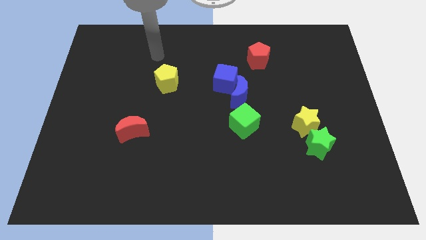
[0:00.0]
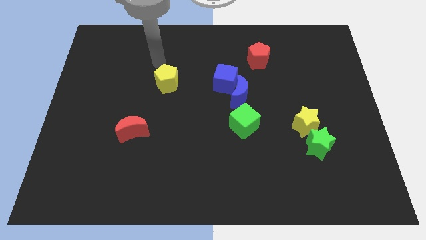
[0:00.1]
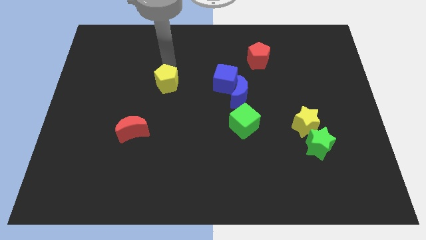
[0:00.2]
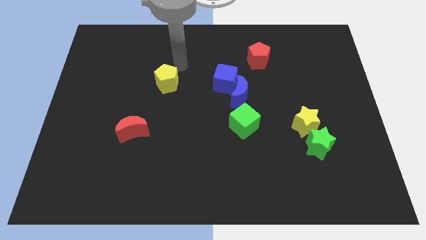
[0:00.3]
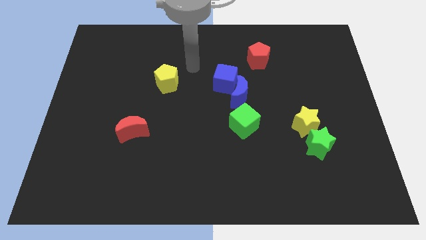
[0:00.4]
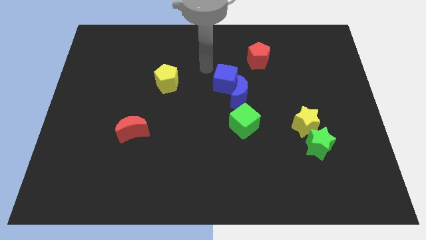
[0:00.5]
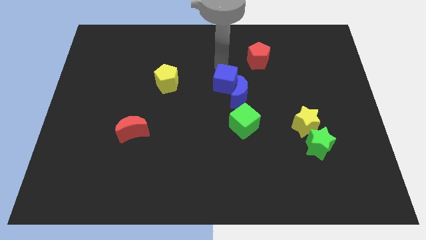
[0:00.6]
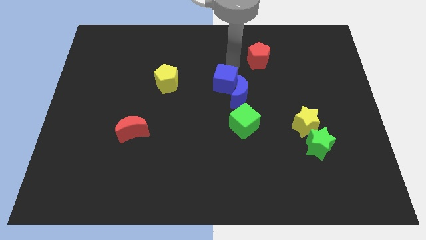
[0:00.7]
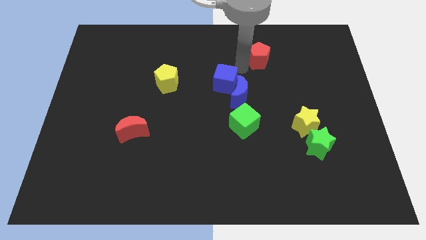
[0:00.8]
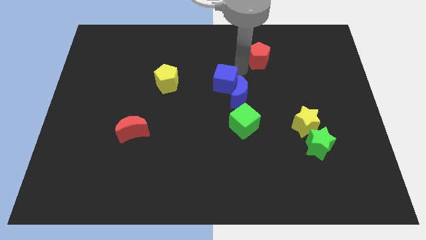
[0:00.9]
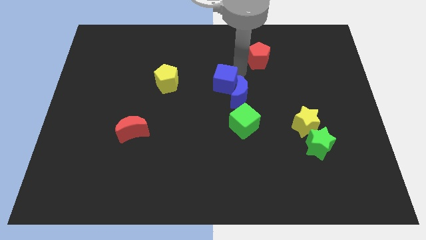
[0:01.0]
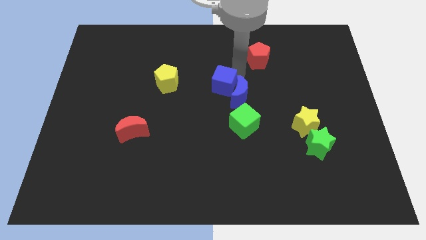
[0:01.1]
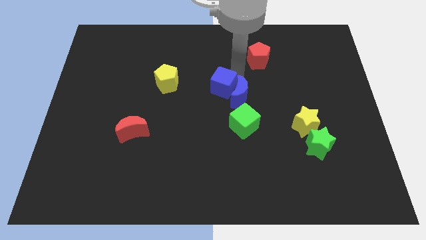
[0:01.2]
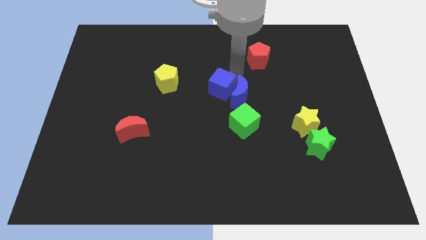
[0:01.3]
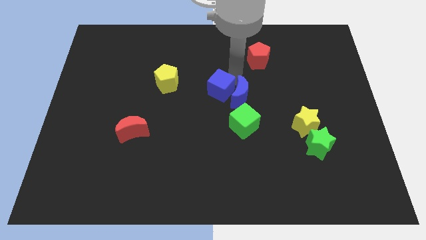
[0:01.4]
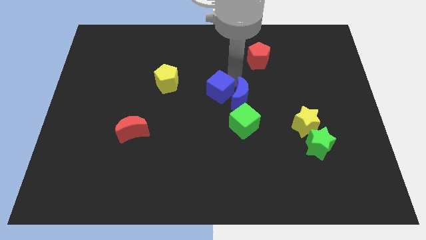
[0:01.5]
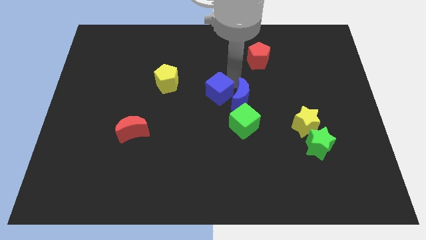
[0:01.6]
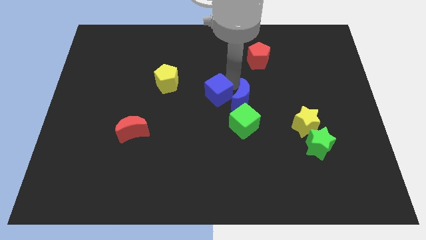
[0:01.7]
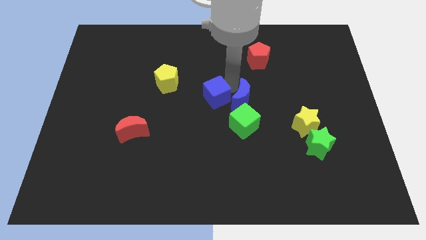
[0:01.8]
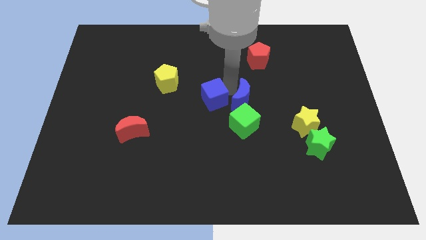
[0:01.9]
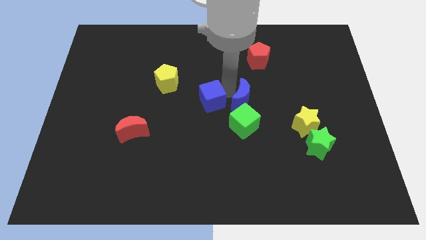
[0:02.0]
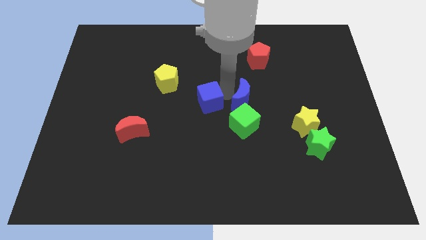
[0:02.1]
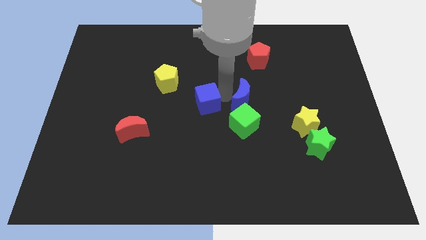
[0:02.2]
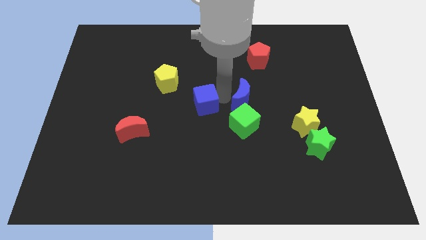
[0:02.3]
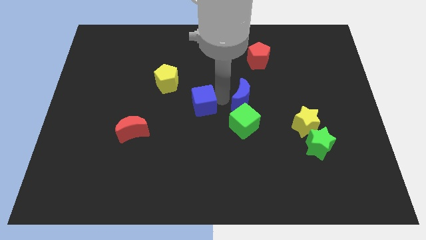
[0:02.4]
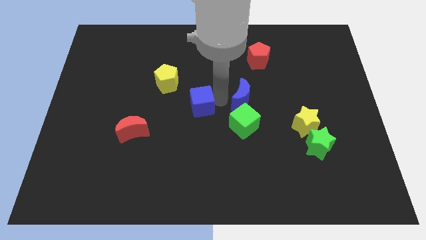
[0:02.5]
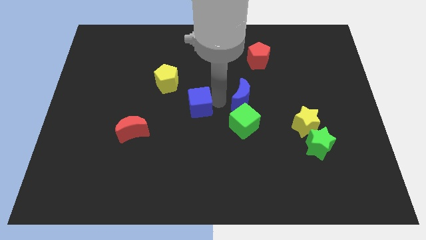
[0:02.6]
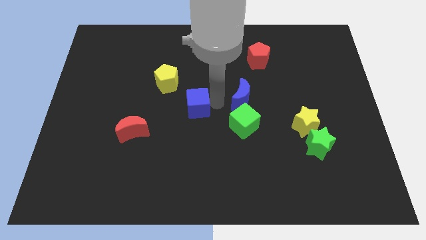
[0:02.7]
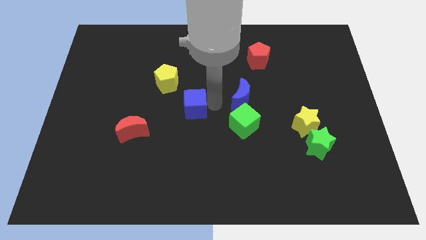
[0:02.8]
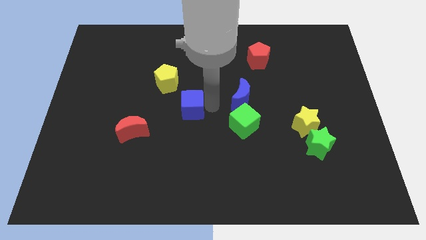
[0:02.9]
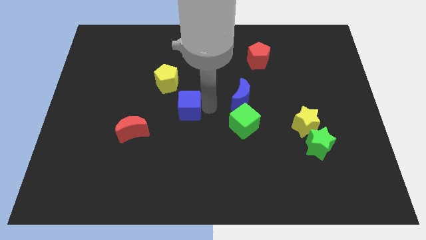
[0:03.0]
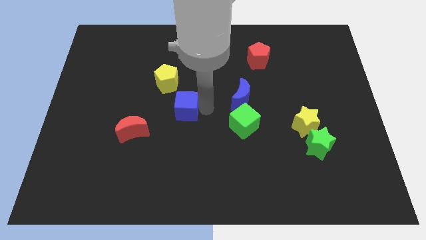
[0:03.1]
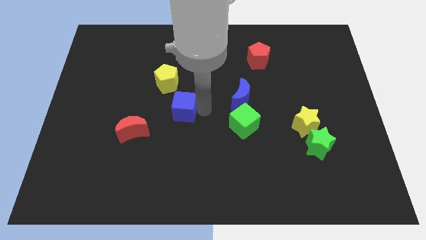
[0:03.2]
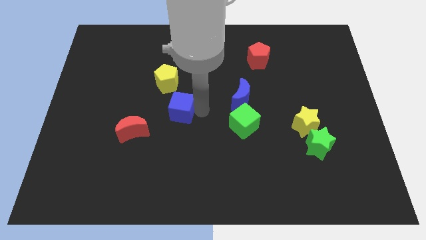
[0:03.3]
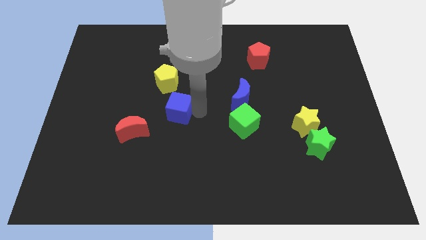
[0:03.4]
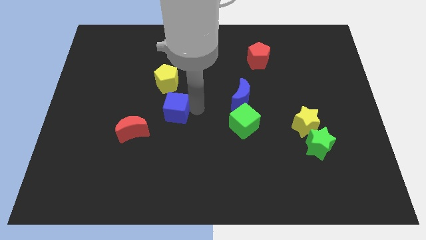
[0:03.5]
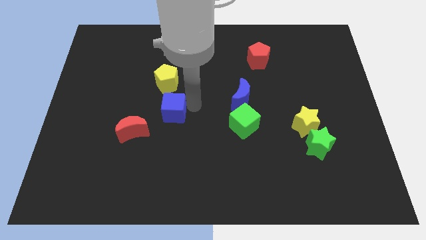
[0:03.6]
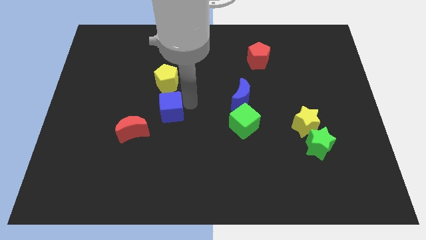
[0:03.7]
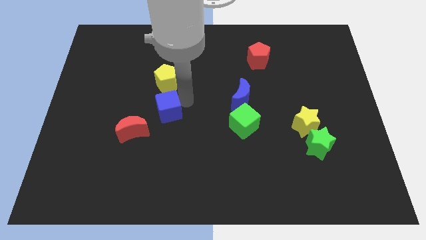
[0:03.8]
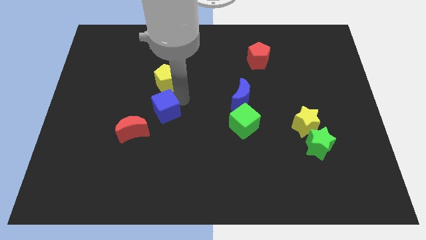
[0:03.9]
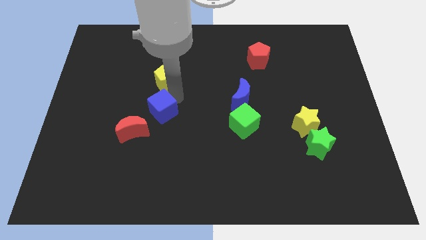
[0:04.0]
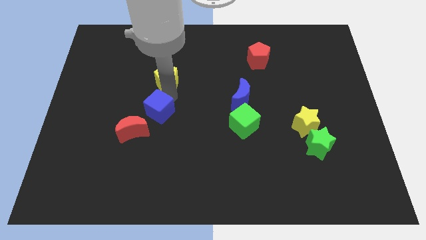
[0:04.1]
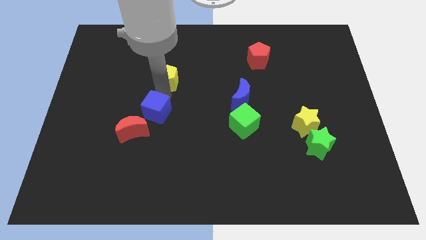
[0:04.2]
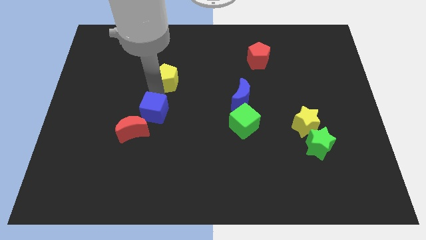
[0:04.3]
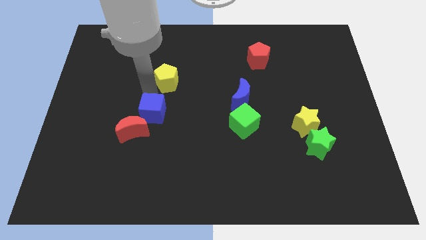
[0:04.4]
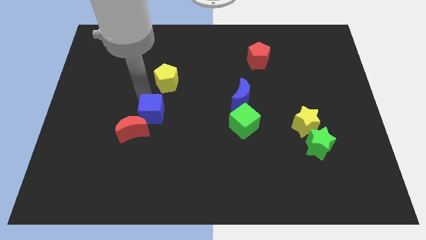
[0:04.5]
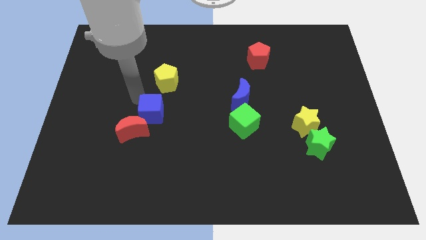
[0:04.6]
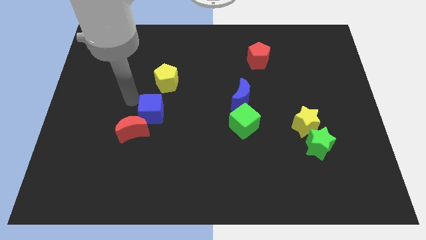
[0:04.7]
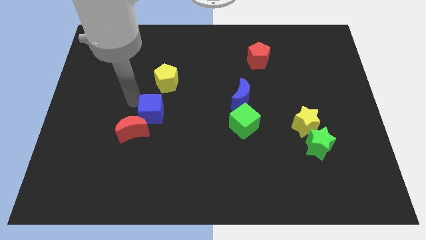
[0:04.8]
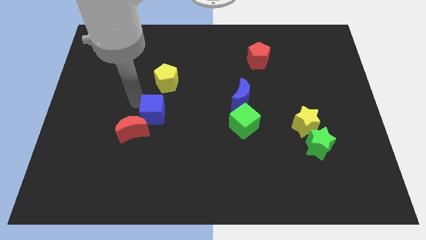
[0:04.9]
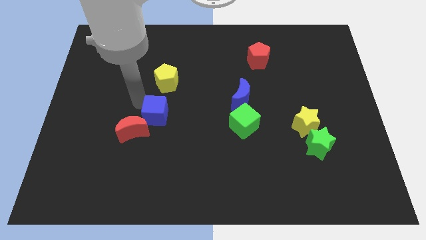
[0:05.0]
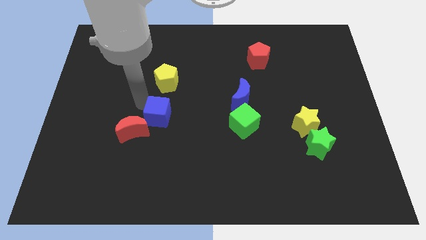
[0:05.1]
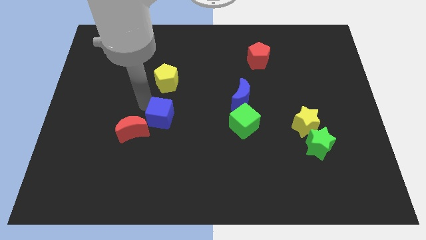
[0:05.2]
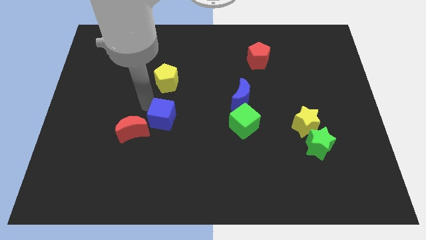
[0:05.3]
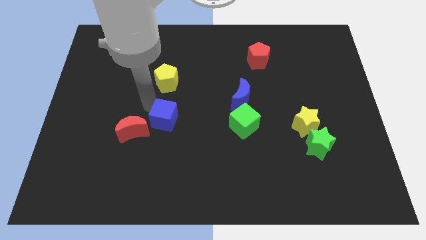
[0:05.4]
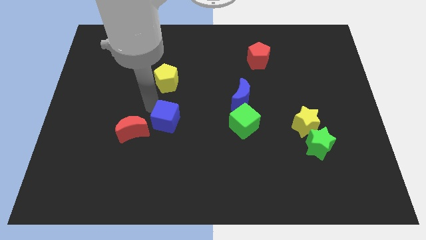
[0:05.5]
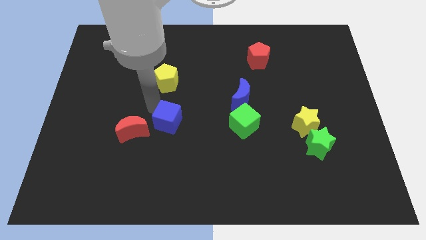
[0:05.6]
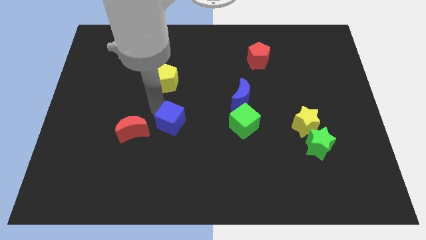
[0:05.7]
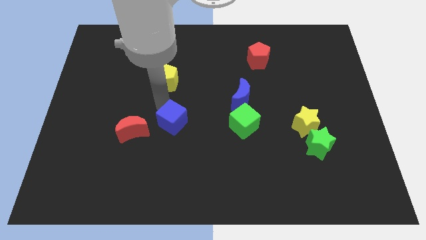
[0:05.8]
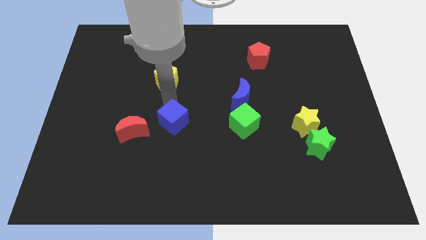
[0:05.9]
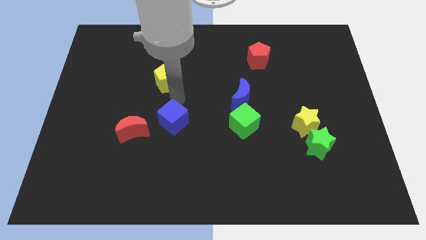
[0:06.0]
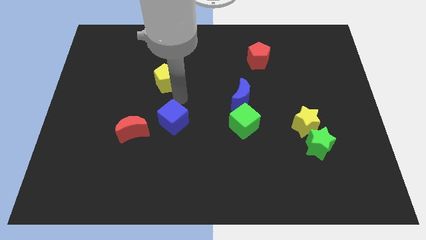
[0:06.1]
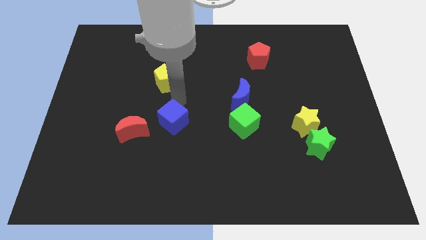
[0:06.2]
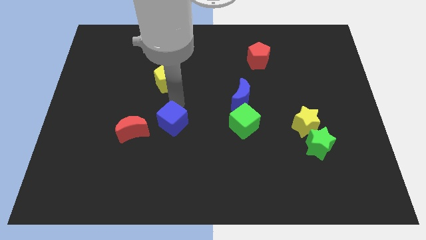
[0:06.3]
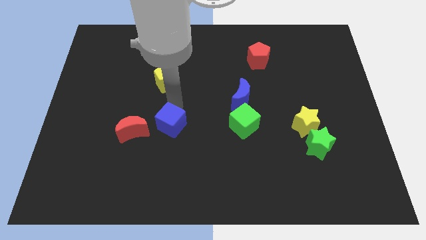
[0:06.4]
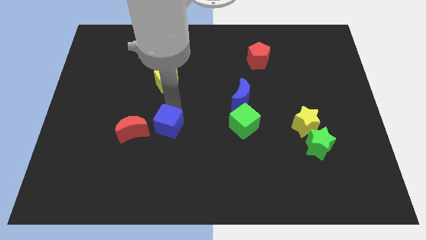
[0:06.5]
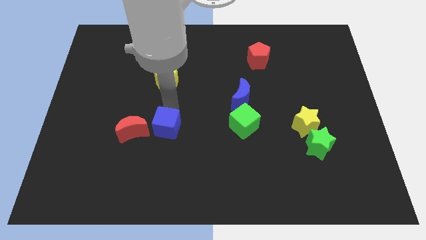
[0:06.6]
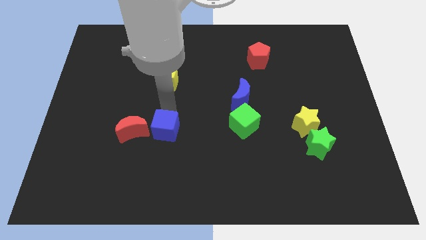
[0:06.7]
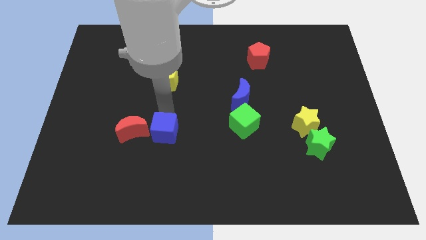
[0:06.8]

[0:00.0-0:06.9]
move the blue cube downwards and then left

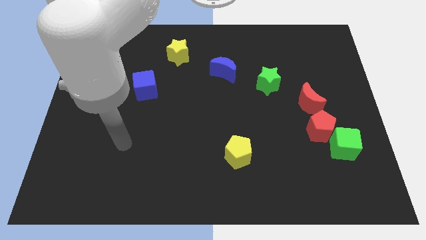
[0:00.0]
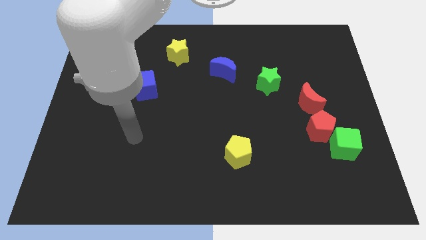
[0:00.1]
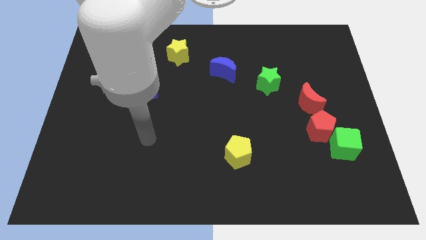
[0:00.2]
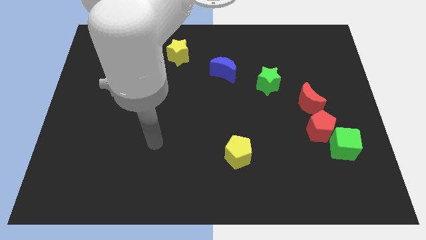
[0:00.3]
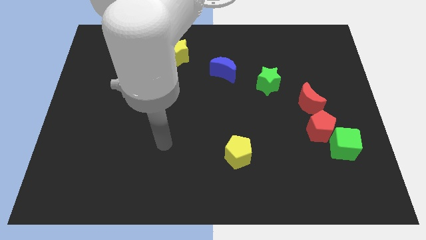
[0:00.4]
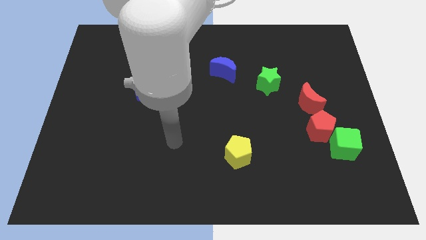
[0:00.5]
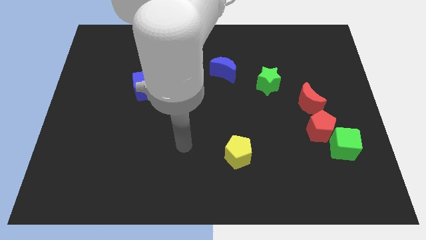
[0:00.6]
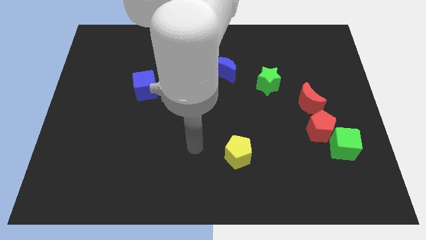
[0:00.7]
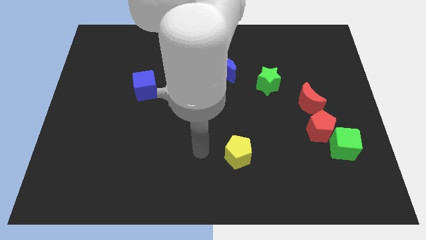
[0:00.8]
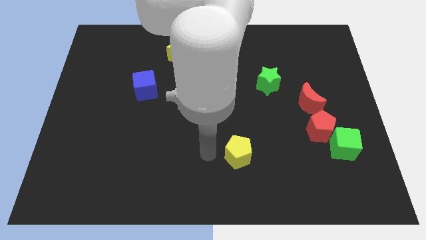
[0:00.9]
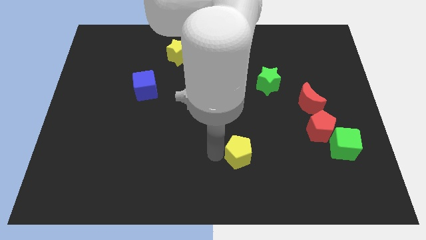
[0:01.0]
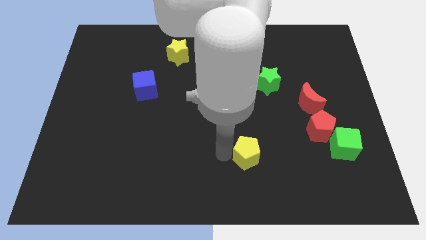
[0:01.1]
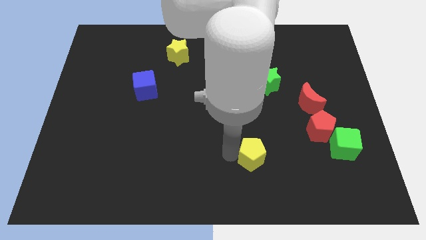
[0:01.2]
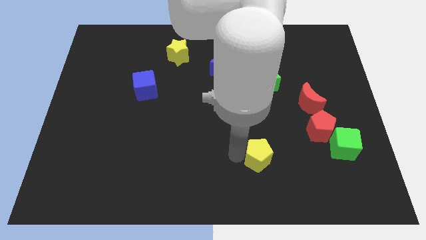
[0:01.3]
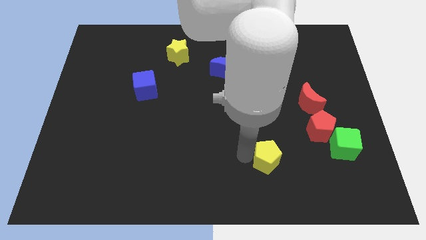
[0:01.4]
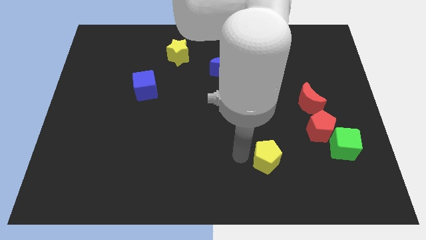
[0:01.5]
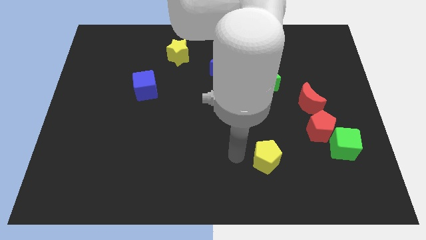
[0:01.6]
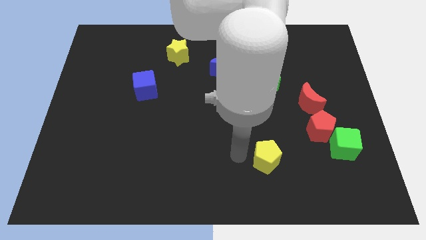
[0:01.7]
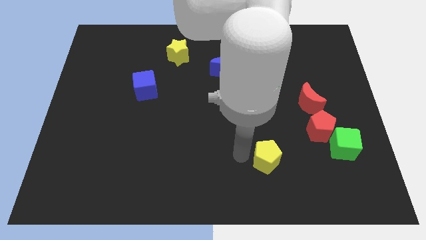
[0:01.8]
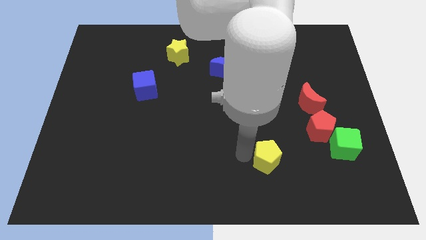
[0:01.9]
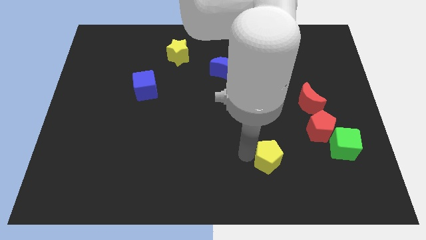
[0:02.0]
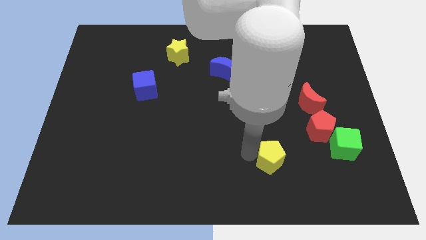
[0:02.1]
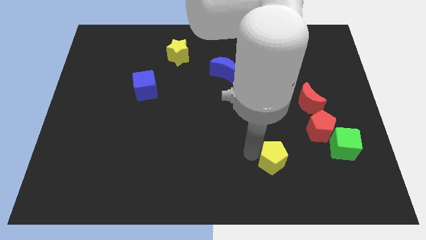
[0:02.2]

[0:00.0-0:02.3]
slightly move the yellow pentagon to the right
